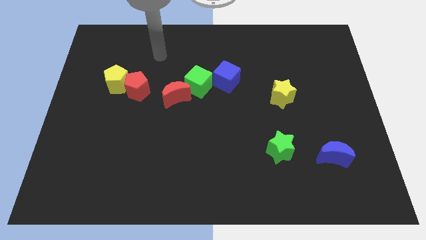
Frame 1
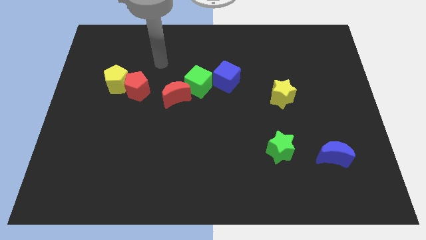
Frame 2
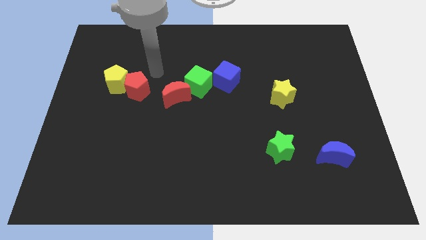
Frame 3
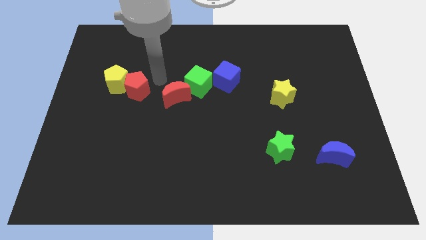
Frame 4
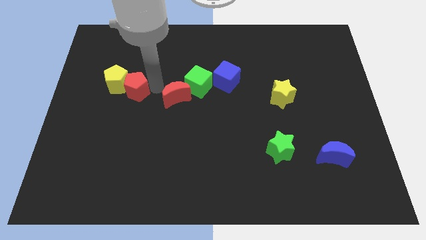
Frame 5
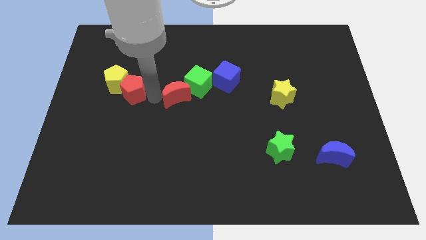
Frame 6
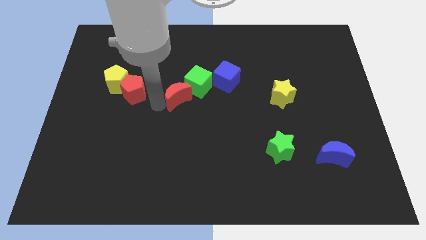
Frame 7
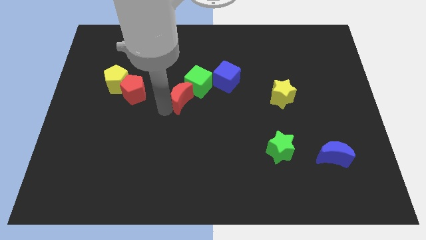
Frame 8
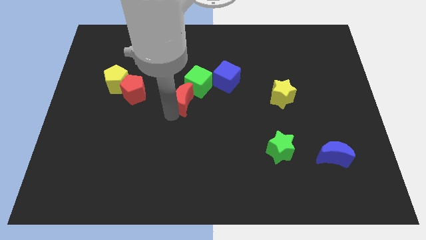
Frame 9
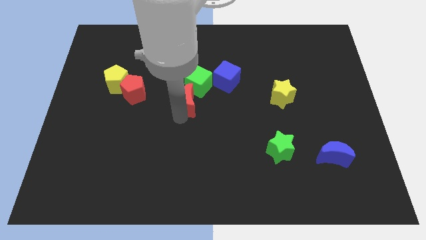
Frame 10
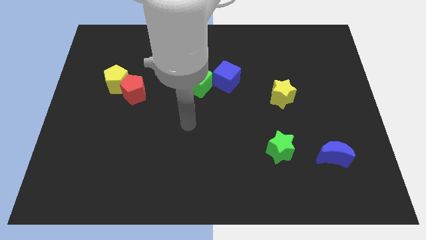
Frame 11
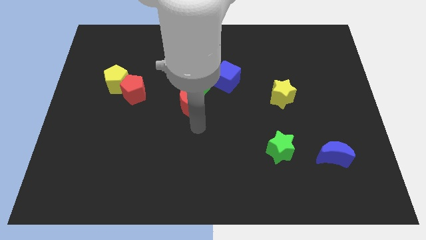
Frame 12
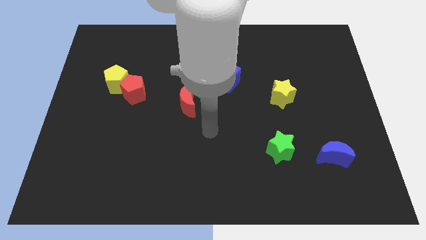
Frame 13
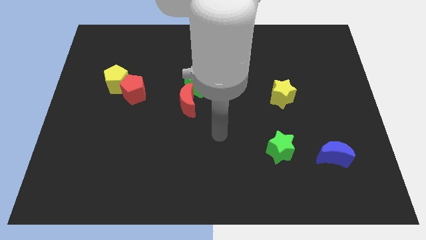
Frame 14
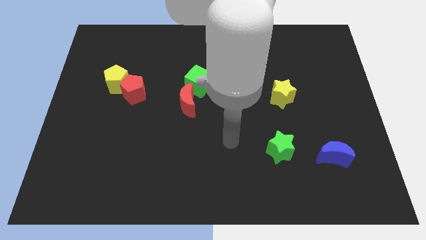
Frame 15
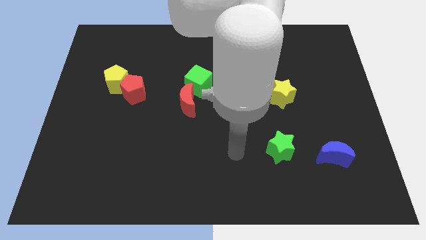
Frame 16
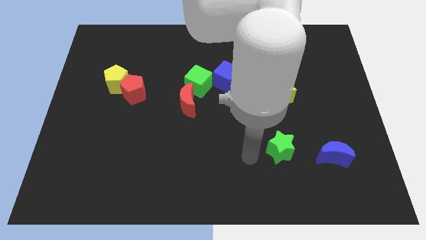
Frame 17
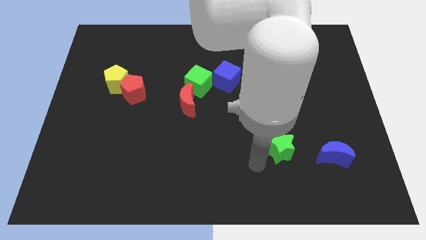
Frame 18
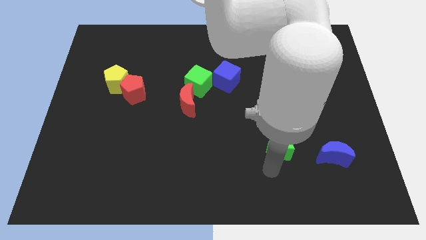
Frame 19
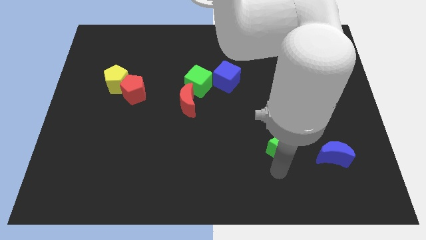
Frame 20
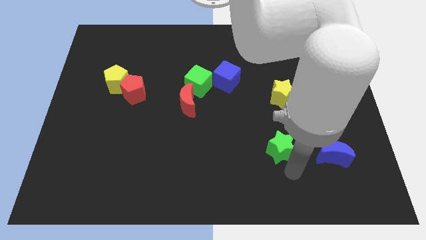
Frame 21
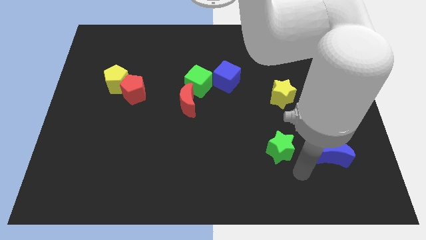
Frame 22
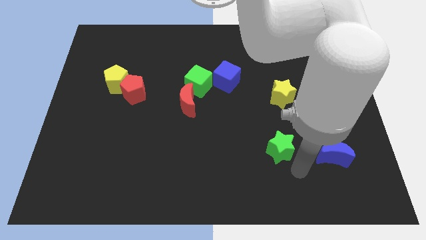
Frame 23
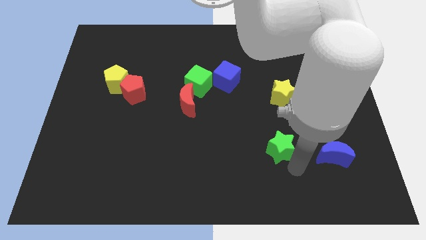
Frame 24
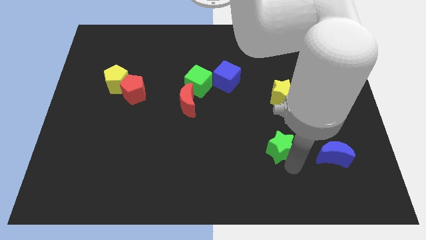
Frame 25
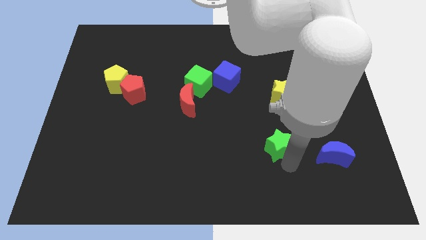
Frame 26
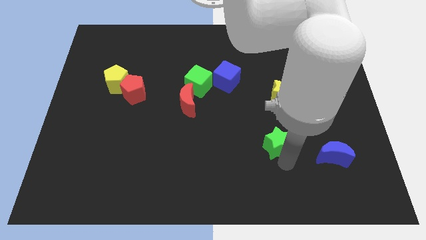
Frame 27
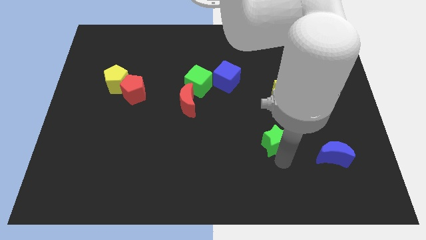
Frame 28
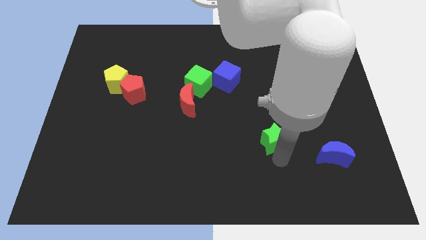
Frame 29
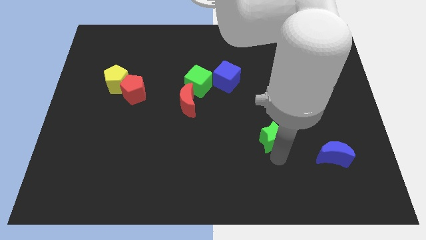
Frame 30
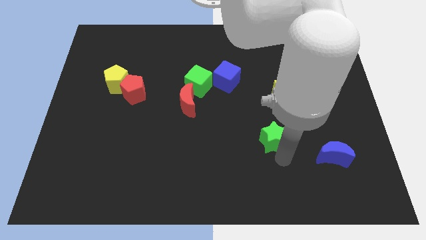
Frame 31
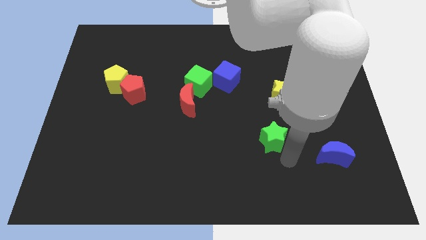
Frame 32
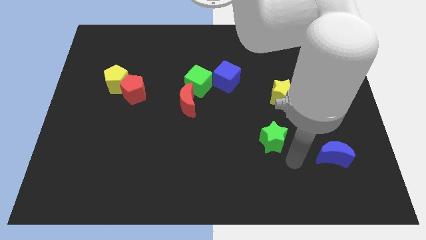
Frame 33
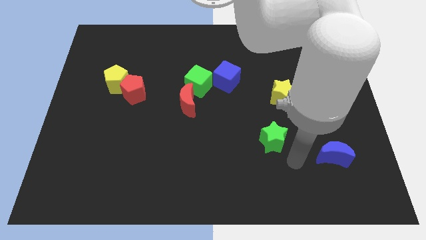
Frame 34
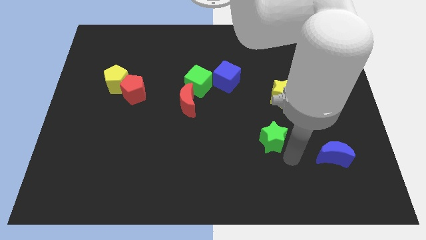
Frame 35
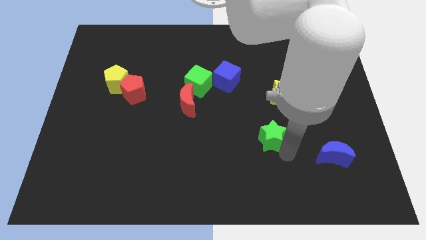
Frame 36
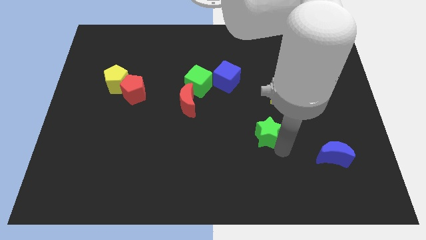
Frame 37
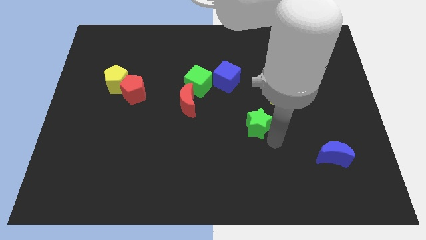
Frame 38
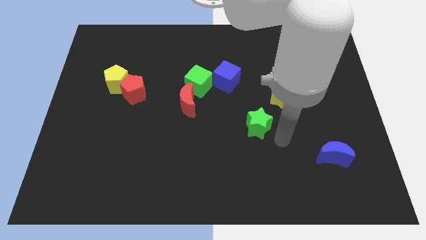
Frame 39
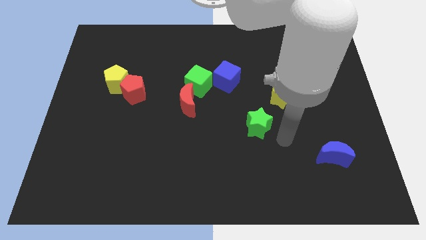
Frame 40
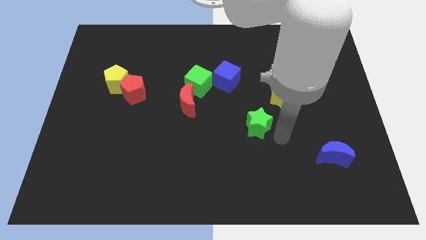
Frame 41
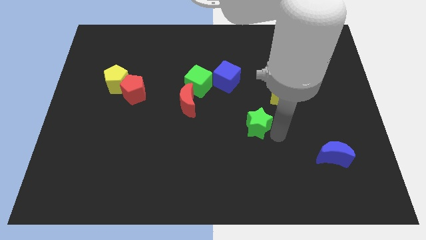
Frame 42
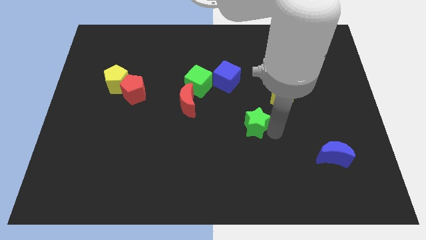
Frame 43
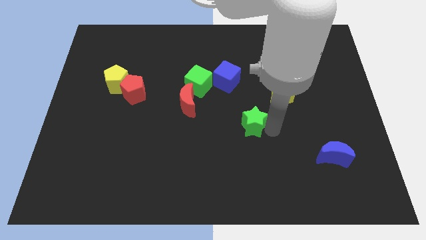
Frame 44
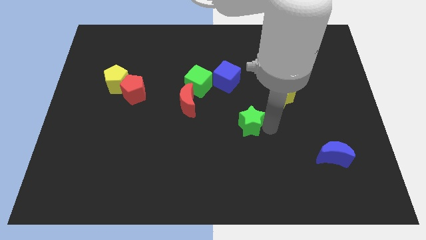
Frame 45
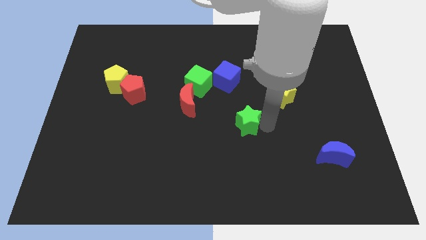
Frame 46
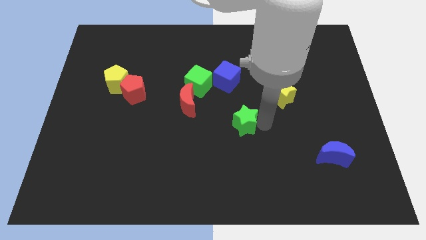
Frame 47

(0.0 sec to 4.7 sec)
slide the green star to the bottom side of the blue cube

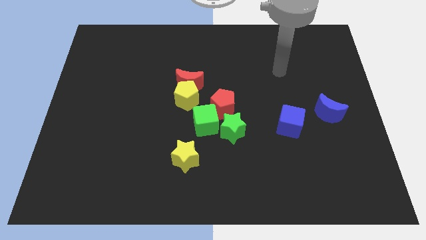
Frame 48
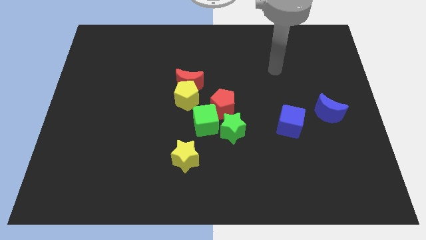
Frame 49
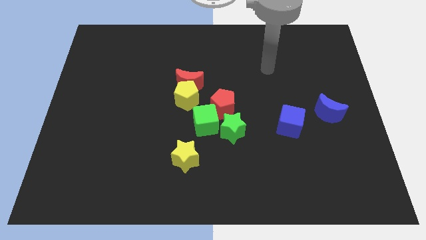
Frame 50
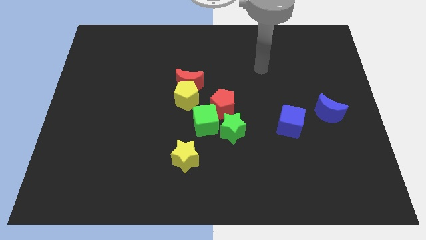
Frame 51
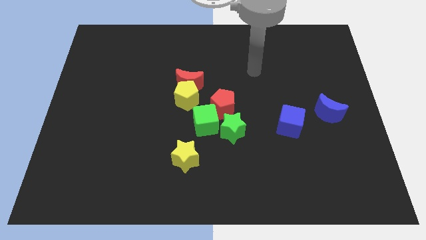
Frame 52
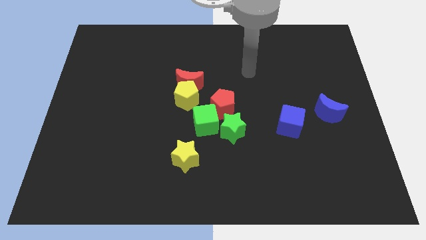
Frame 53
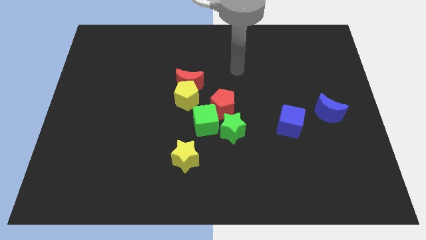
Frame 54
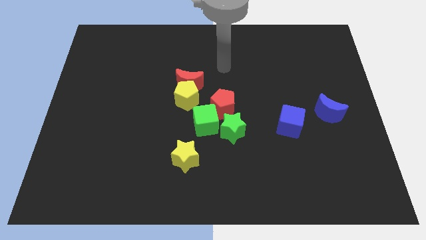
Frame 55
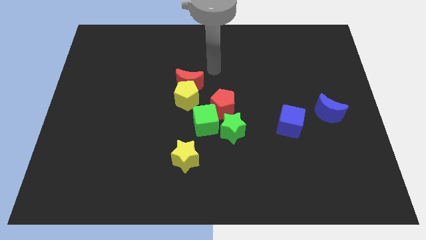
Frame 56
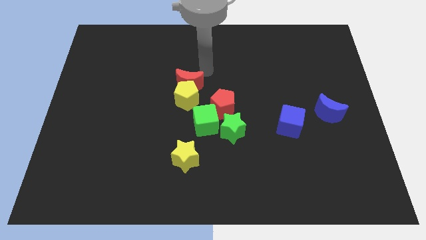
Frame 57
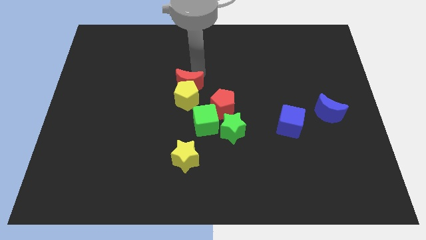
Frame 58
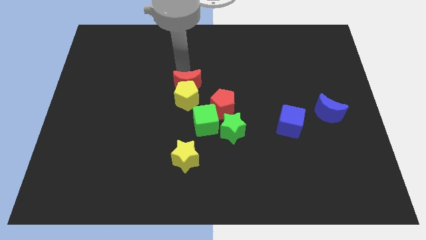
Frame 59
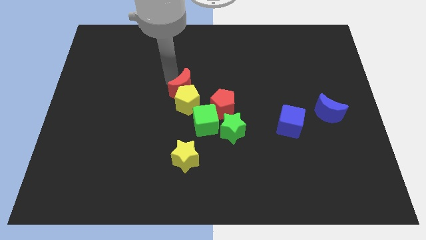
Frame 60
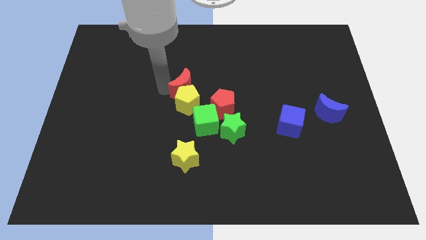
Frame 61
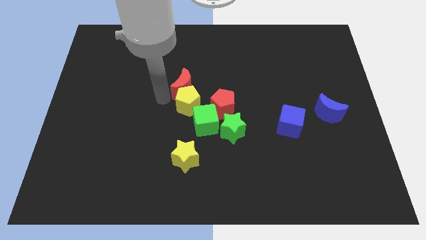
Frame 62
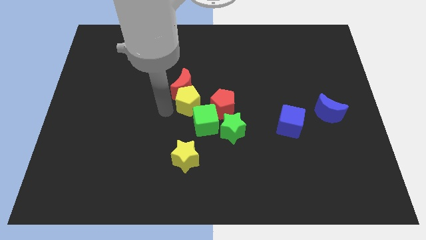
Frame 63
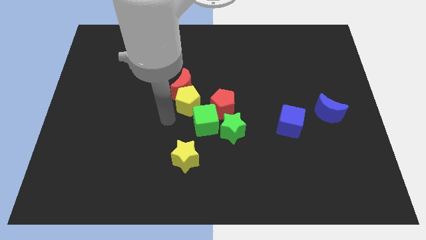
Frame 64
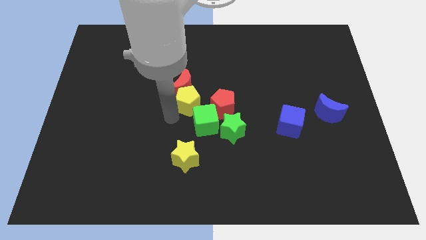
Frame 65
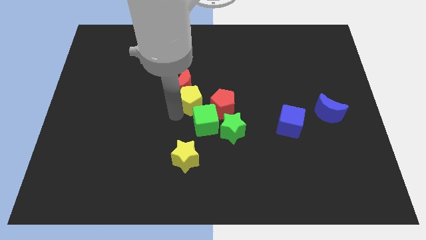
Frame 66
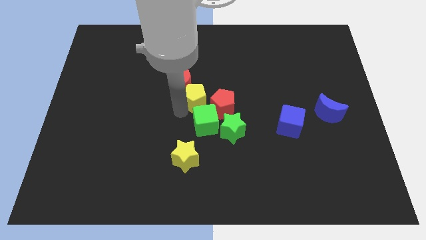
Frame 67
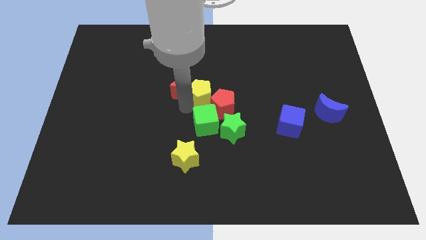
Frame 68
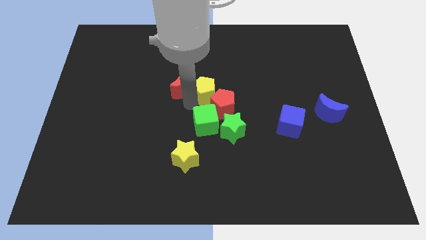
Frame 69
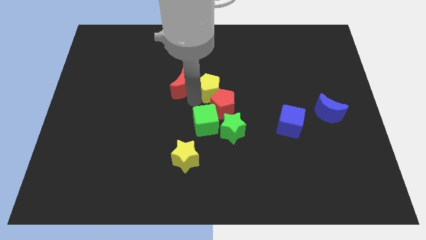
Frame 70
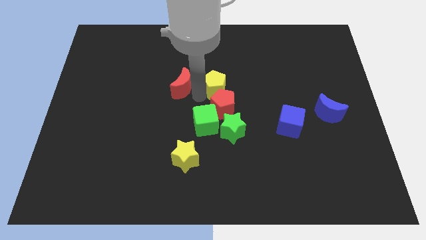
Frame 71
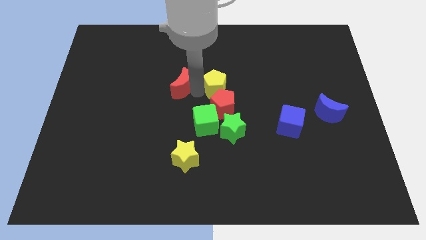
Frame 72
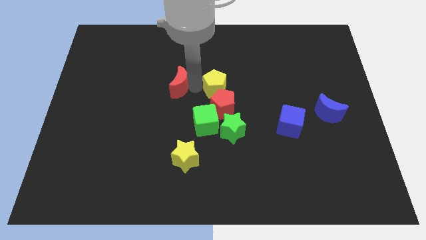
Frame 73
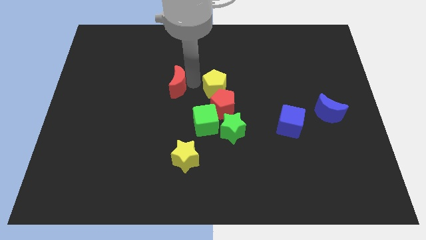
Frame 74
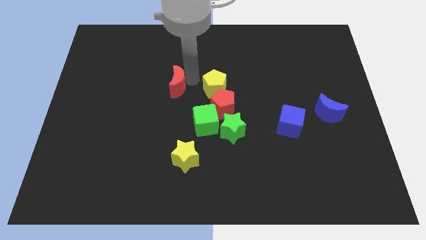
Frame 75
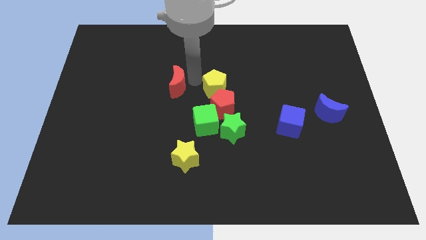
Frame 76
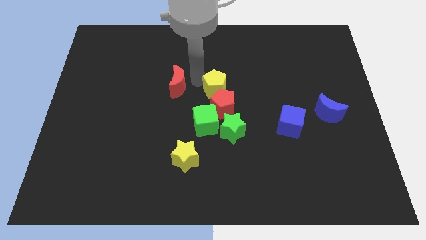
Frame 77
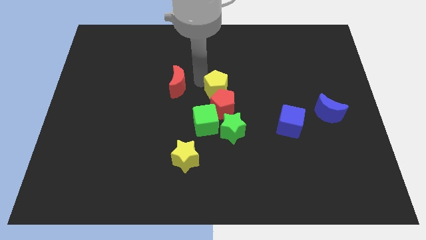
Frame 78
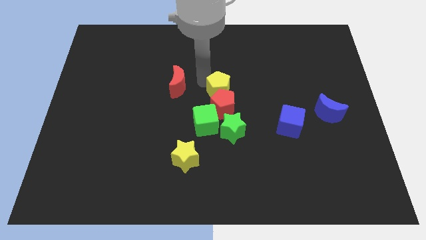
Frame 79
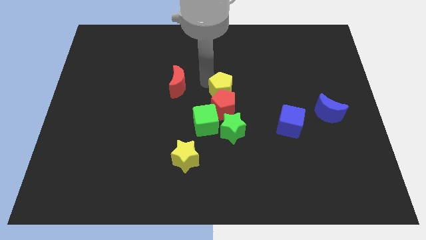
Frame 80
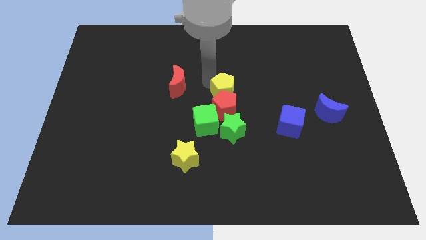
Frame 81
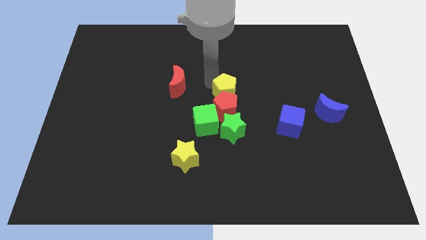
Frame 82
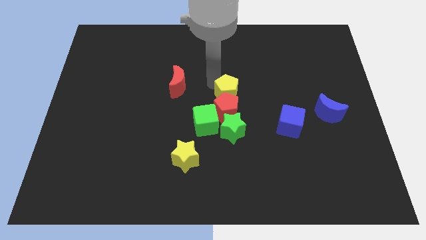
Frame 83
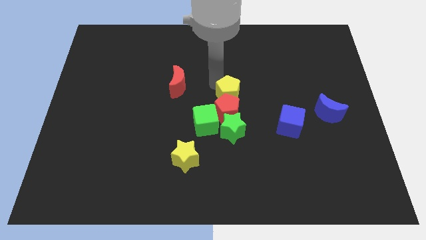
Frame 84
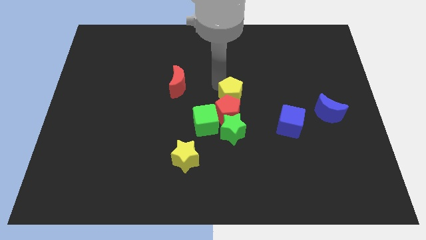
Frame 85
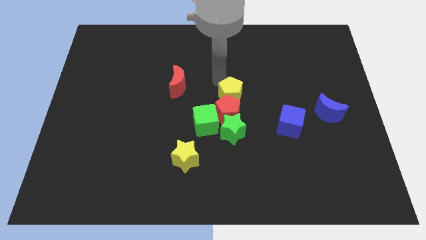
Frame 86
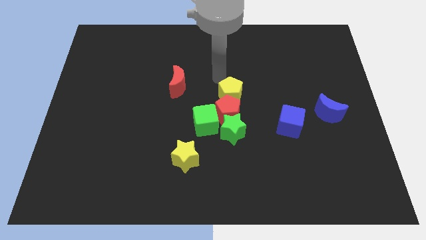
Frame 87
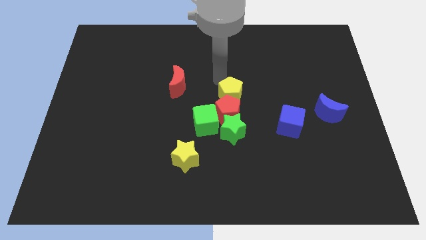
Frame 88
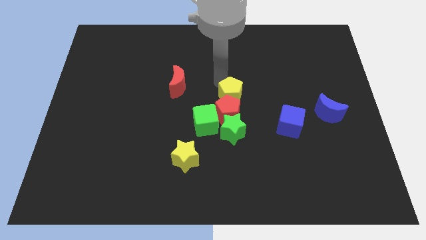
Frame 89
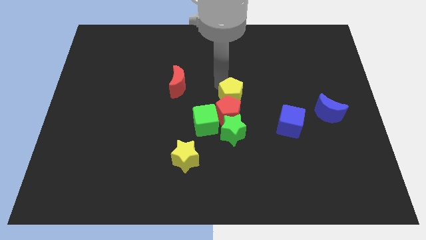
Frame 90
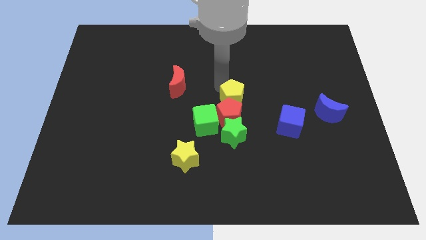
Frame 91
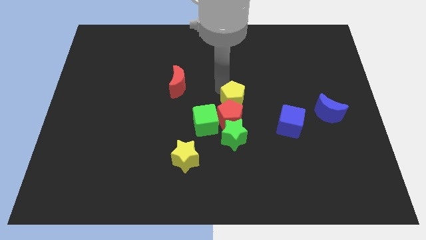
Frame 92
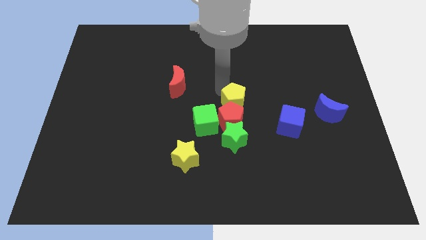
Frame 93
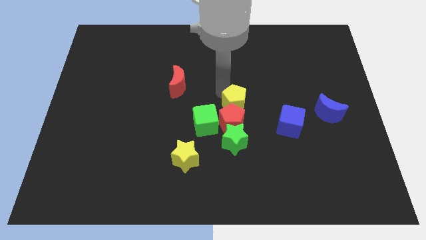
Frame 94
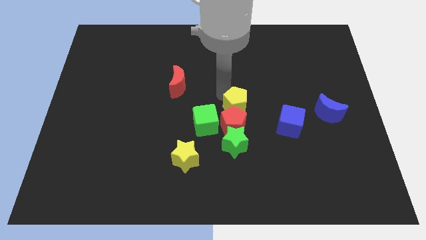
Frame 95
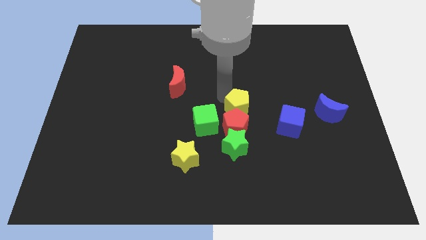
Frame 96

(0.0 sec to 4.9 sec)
put the yellow pentagon to the right side of the green cube
